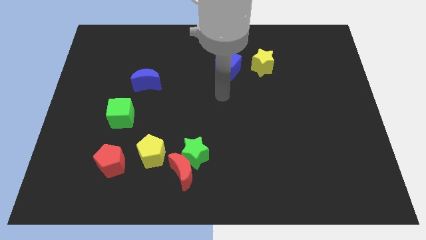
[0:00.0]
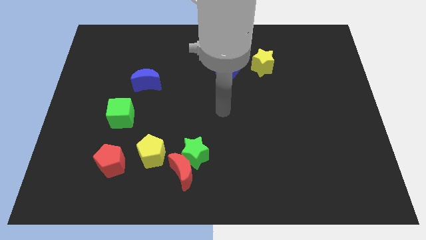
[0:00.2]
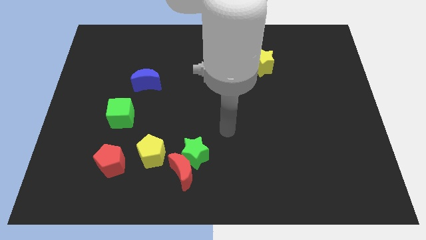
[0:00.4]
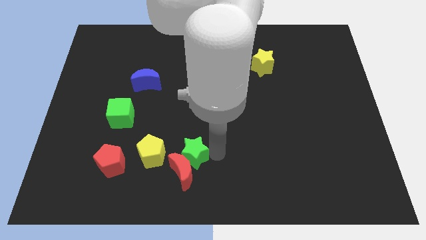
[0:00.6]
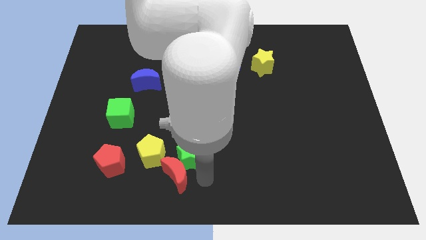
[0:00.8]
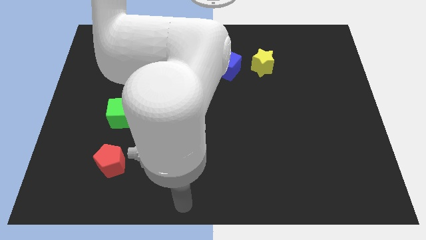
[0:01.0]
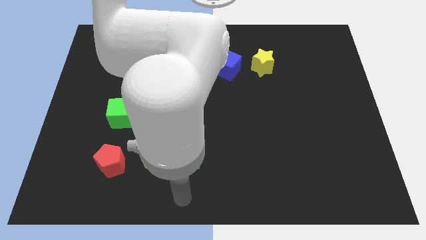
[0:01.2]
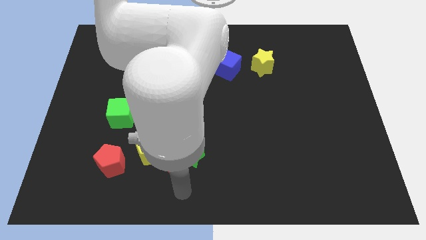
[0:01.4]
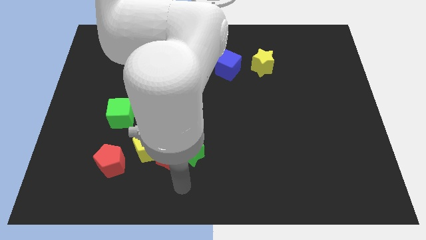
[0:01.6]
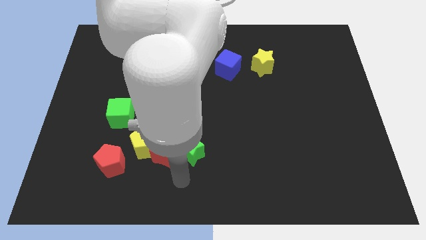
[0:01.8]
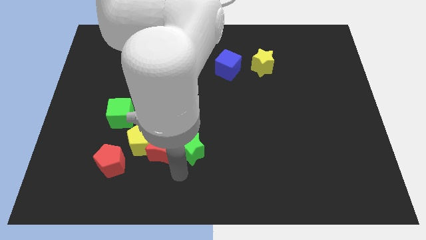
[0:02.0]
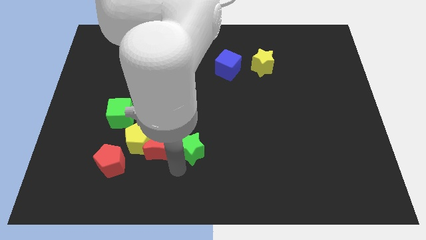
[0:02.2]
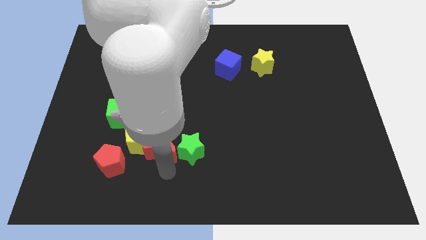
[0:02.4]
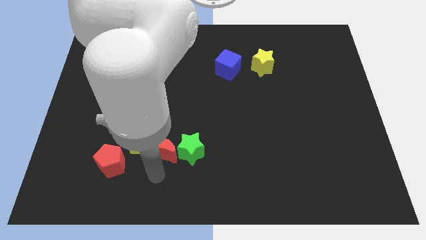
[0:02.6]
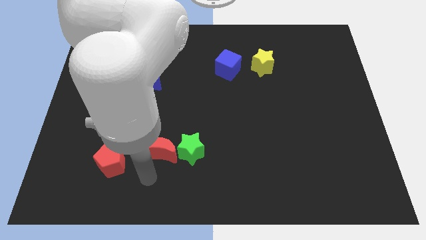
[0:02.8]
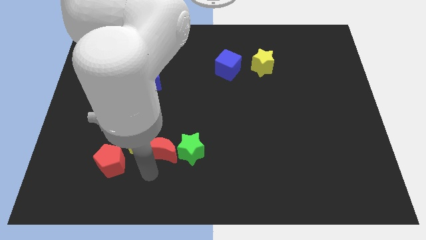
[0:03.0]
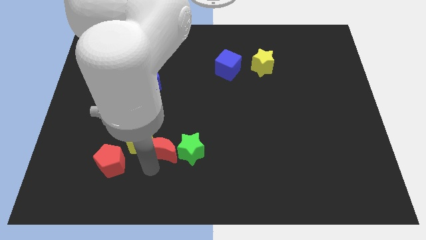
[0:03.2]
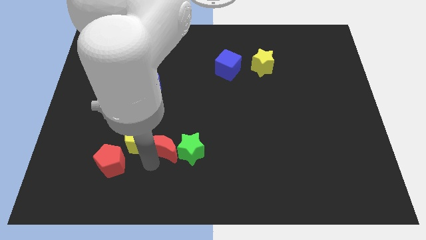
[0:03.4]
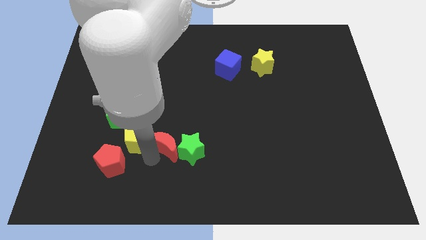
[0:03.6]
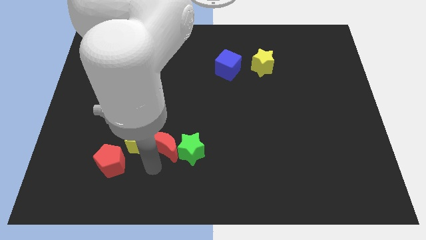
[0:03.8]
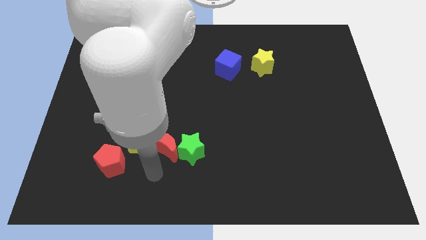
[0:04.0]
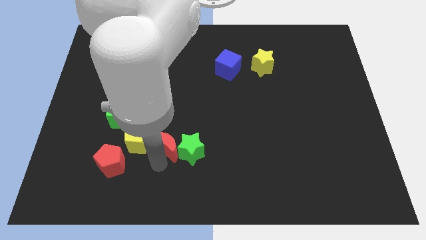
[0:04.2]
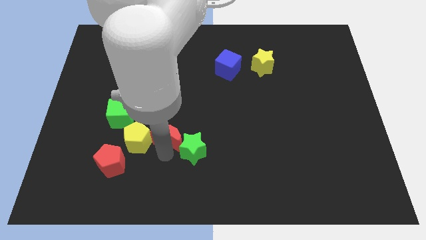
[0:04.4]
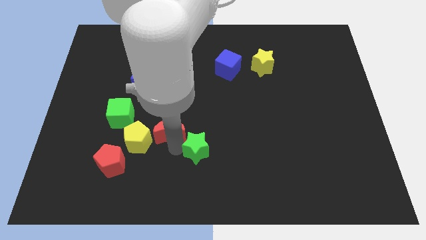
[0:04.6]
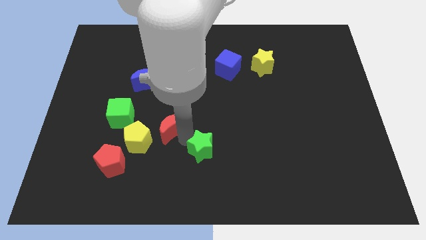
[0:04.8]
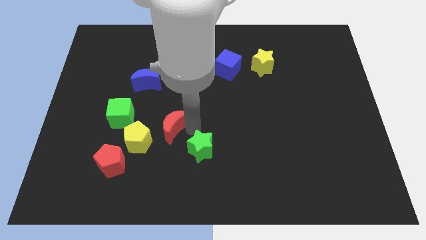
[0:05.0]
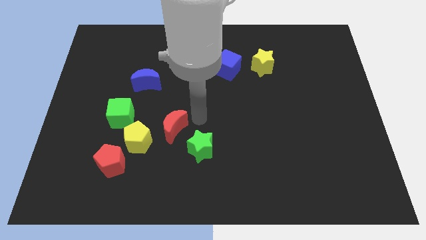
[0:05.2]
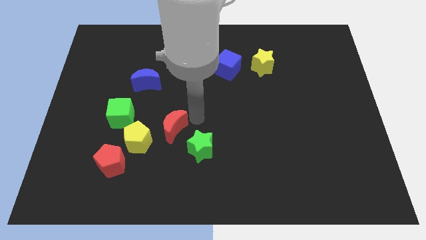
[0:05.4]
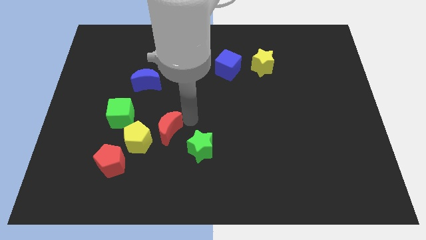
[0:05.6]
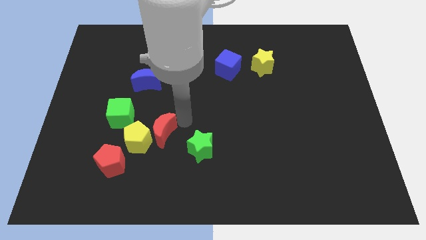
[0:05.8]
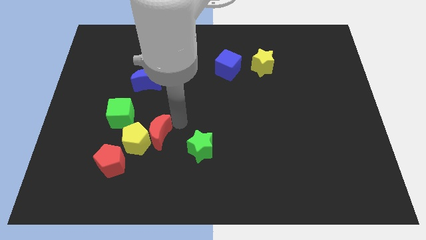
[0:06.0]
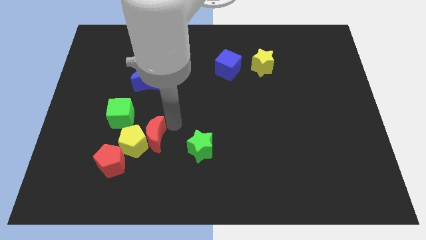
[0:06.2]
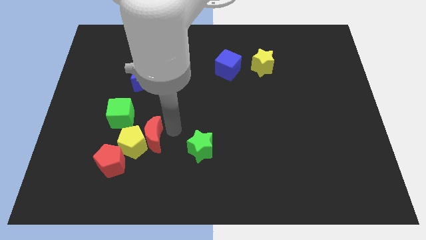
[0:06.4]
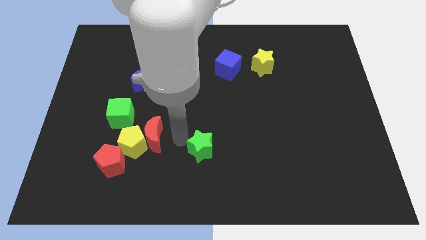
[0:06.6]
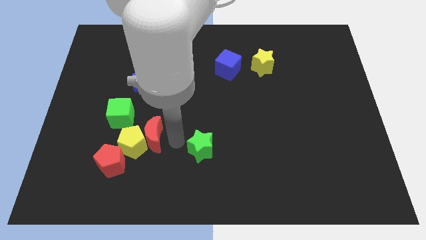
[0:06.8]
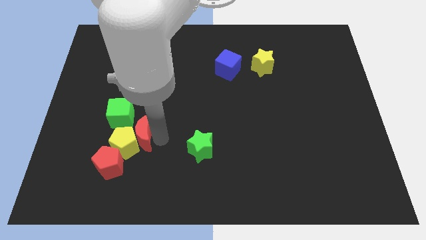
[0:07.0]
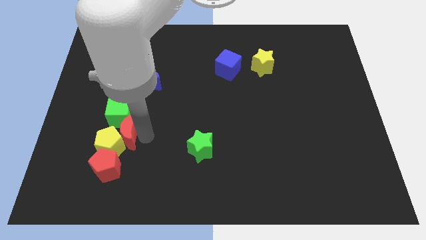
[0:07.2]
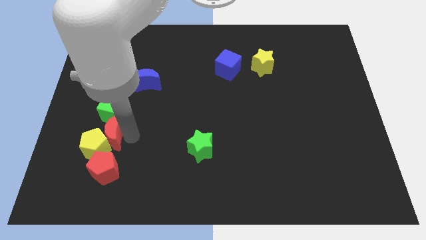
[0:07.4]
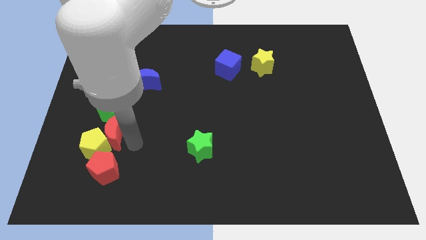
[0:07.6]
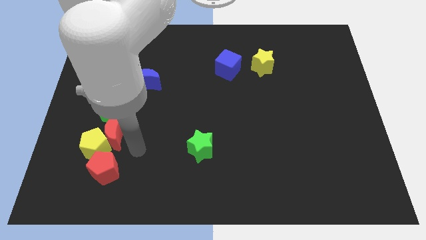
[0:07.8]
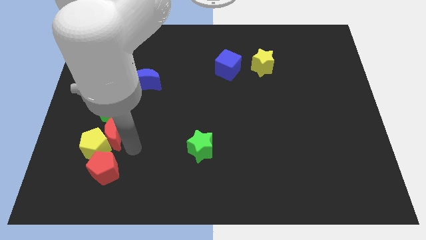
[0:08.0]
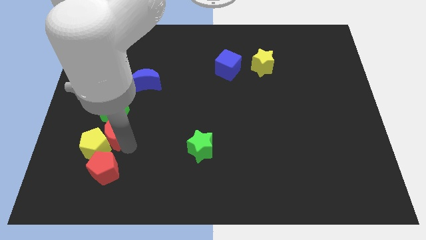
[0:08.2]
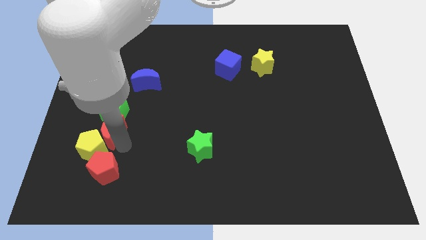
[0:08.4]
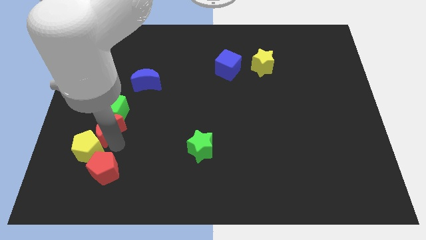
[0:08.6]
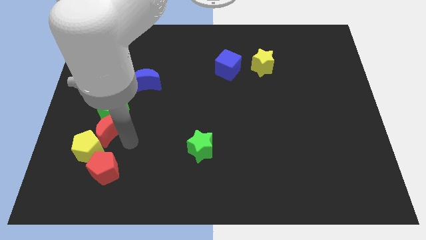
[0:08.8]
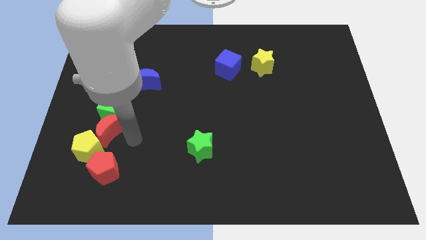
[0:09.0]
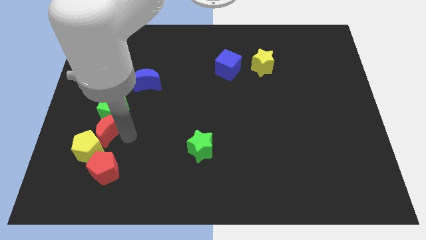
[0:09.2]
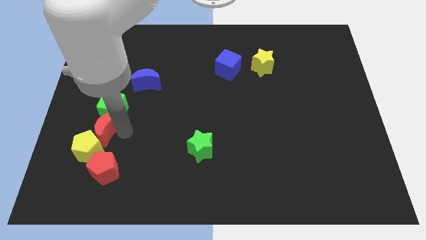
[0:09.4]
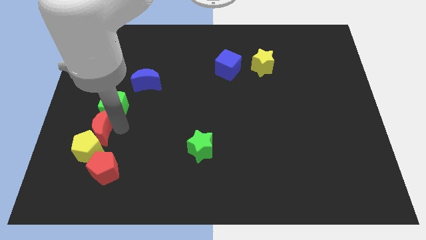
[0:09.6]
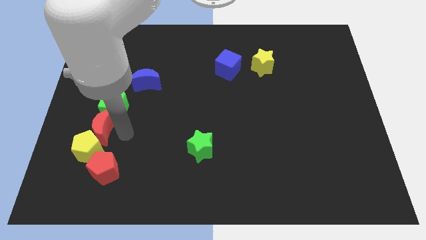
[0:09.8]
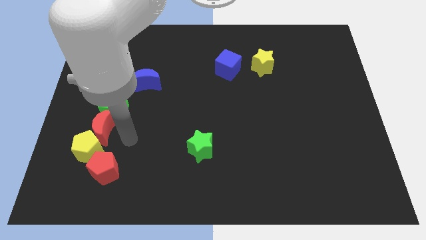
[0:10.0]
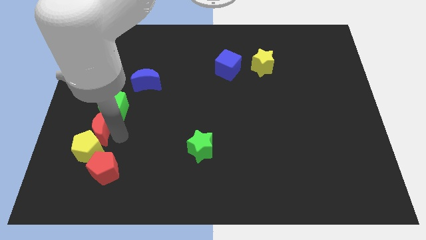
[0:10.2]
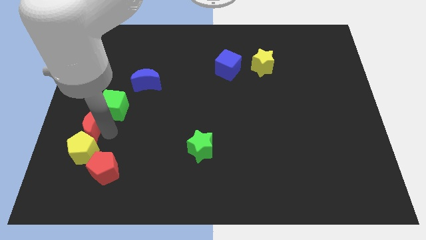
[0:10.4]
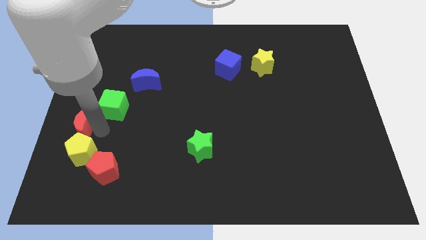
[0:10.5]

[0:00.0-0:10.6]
push the red moon to the left side of the board

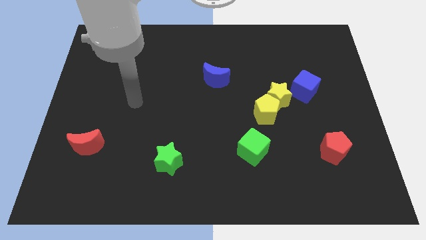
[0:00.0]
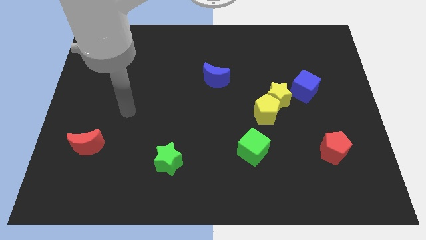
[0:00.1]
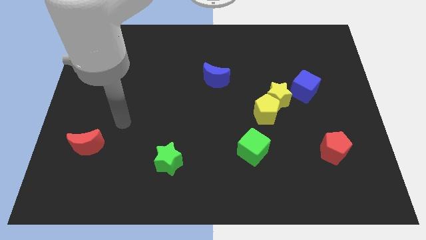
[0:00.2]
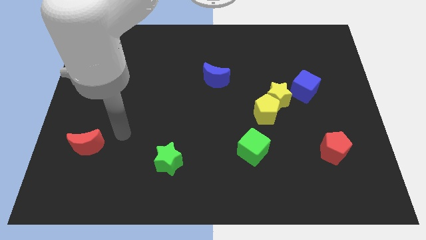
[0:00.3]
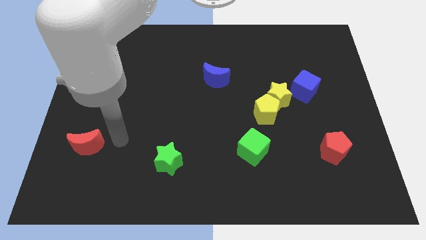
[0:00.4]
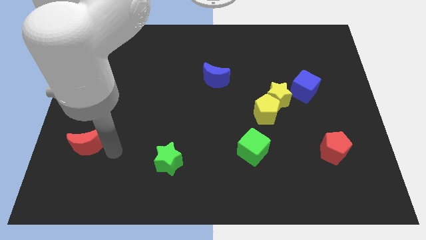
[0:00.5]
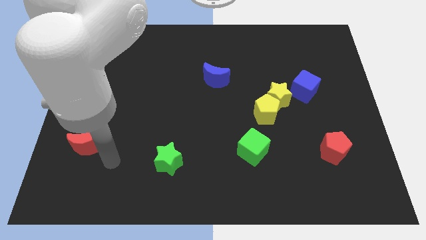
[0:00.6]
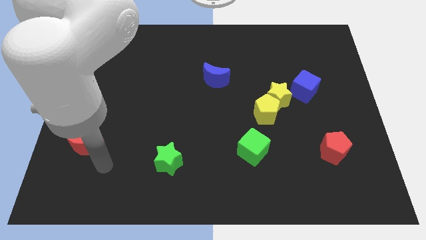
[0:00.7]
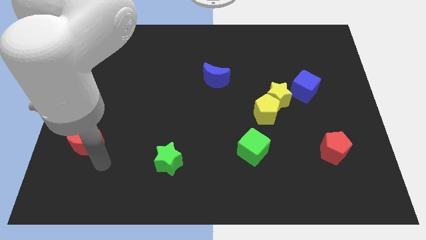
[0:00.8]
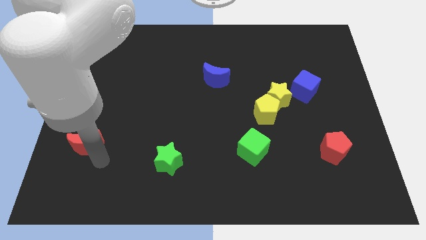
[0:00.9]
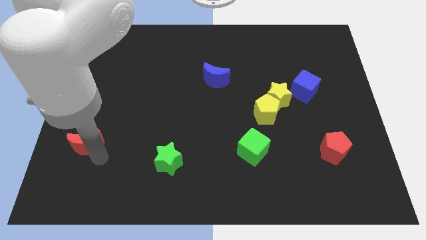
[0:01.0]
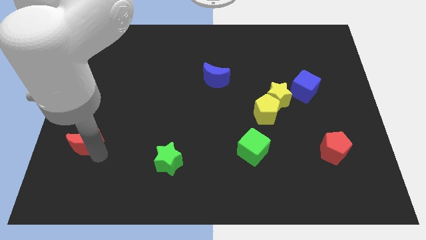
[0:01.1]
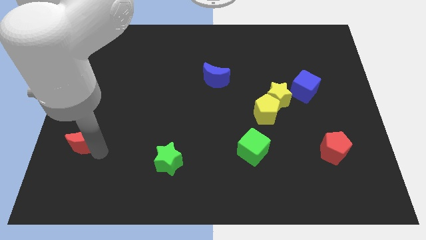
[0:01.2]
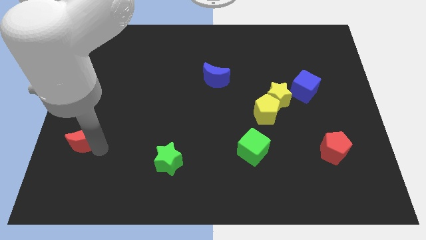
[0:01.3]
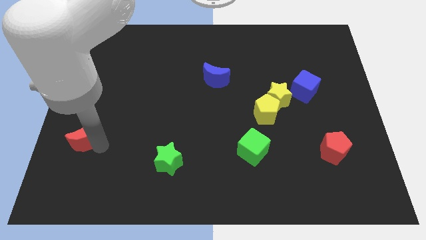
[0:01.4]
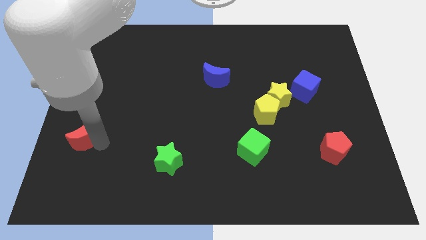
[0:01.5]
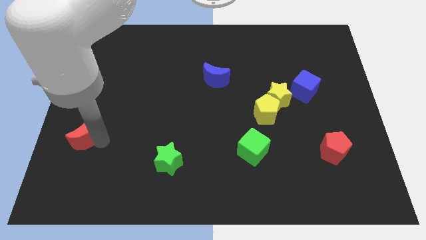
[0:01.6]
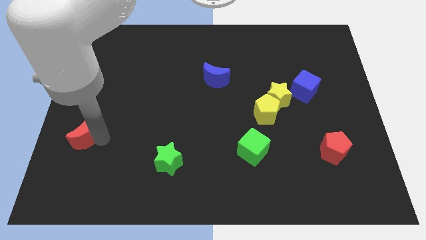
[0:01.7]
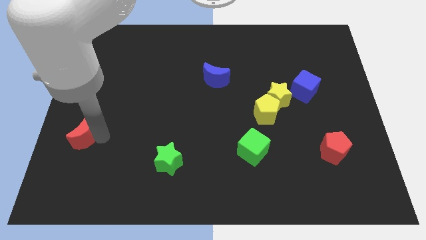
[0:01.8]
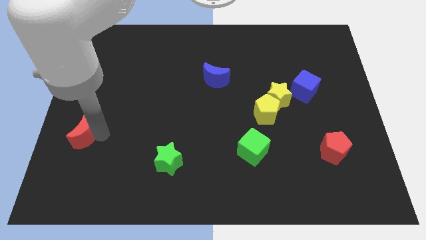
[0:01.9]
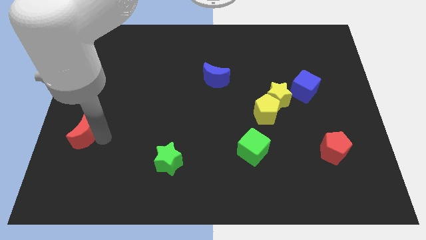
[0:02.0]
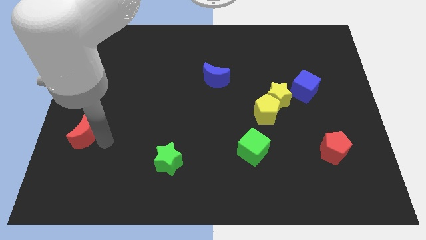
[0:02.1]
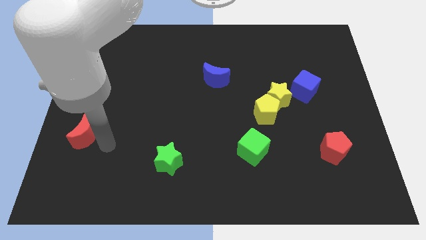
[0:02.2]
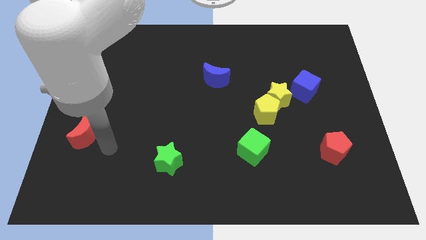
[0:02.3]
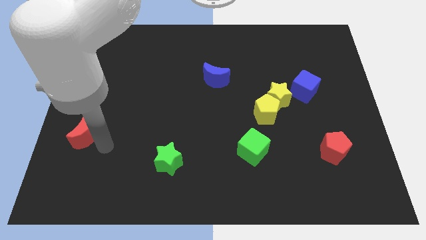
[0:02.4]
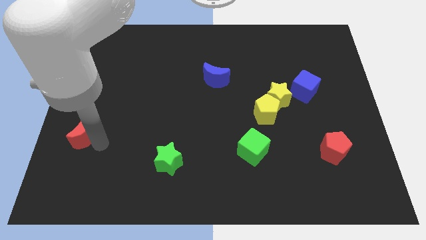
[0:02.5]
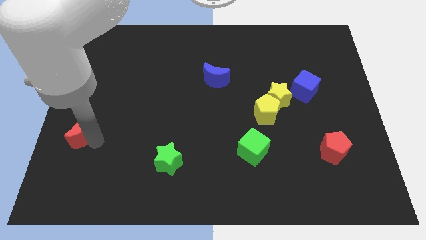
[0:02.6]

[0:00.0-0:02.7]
slide the red moon to the left side of the board
